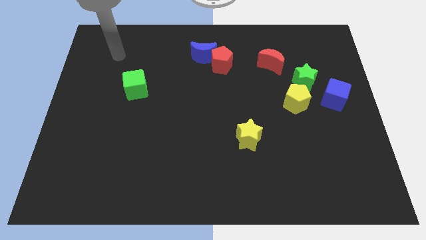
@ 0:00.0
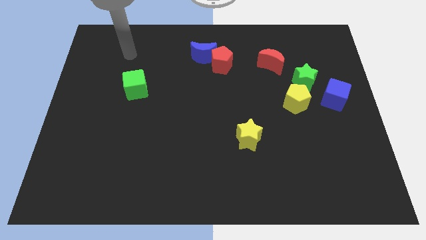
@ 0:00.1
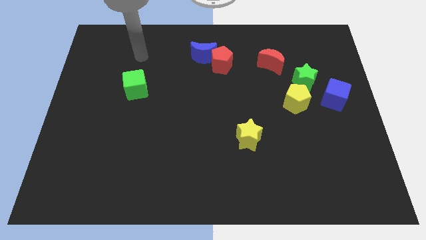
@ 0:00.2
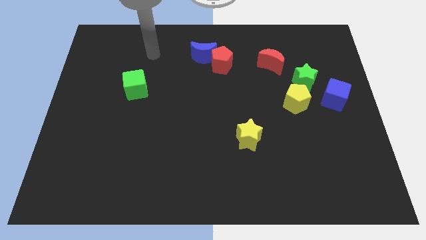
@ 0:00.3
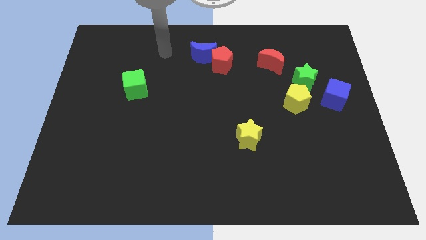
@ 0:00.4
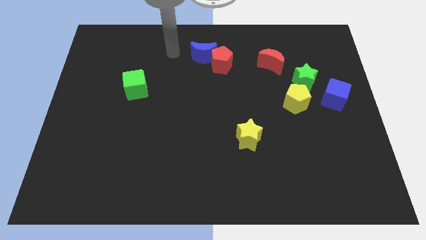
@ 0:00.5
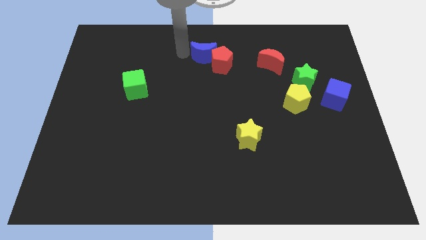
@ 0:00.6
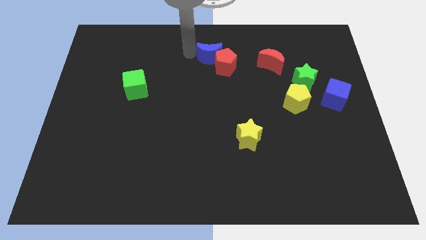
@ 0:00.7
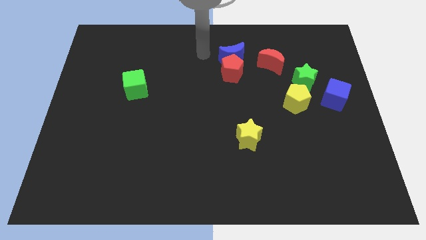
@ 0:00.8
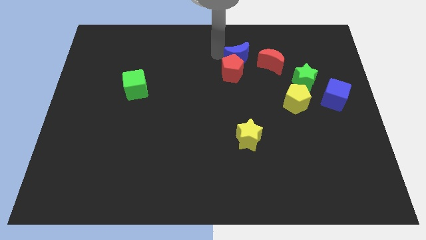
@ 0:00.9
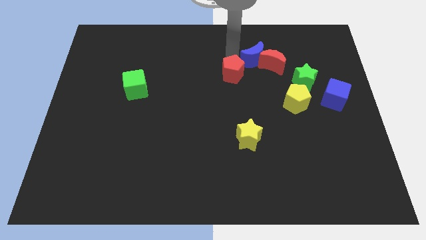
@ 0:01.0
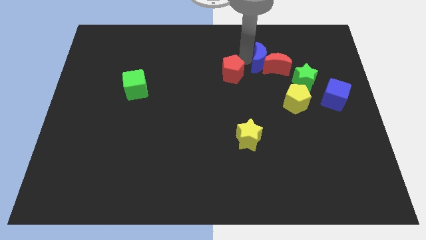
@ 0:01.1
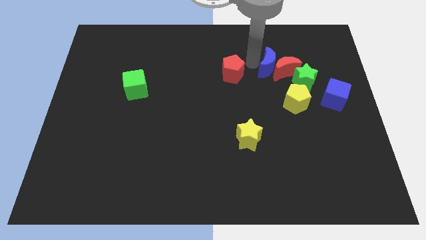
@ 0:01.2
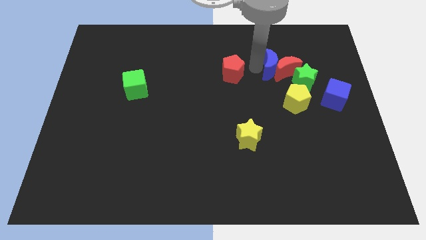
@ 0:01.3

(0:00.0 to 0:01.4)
move the red pentagon away from the blue moon

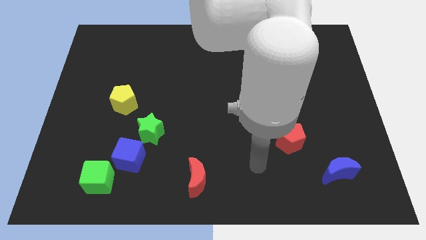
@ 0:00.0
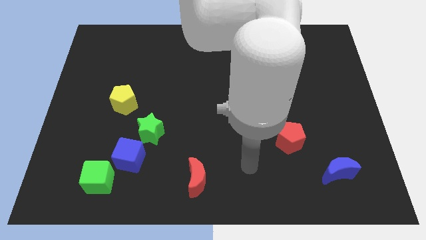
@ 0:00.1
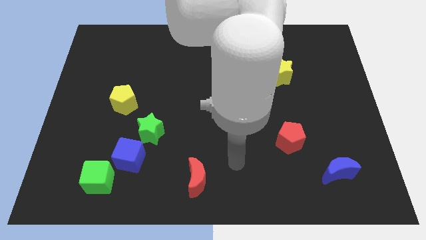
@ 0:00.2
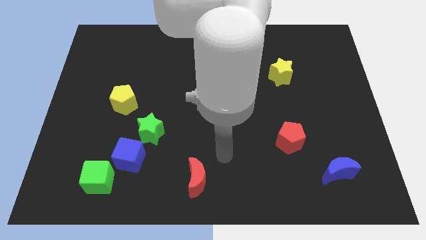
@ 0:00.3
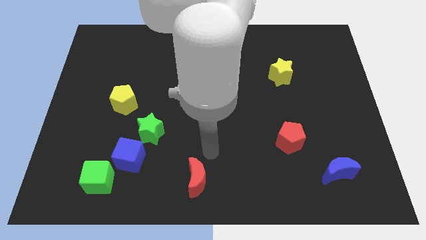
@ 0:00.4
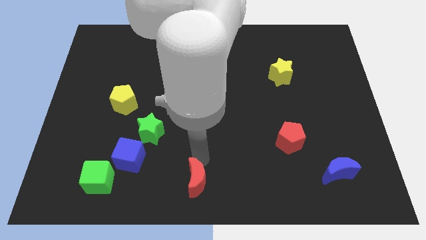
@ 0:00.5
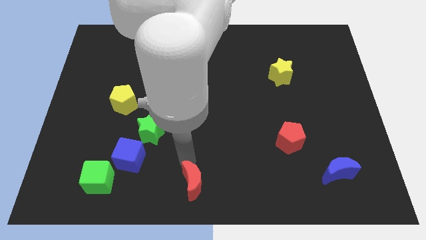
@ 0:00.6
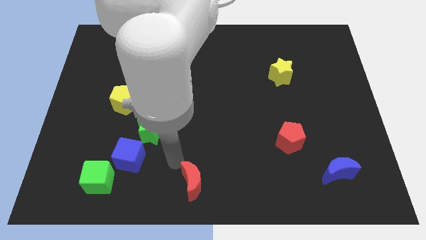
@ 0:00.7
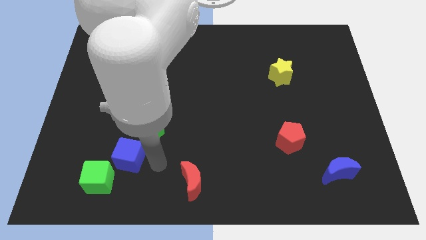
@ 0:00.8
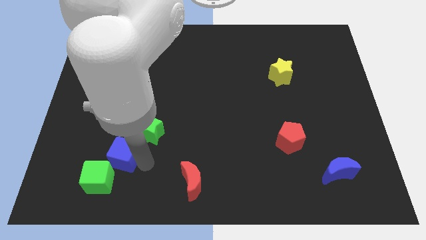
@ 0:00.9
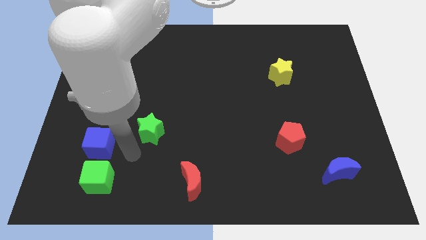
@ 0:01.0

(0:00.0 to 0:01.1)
separate the green star from the blue cube

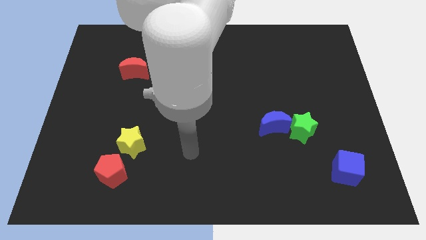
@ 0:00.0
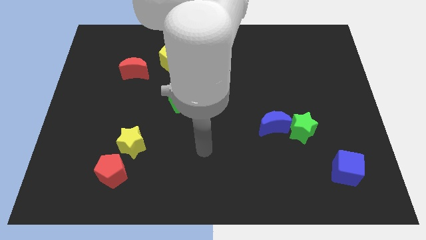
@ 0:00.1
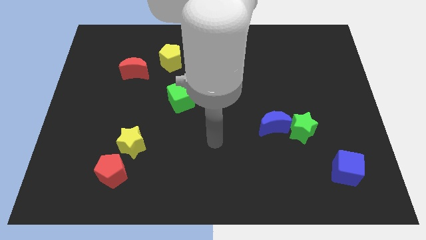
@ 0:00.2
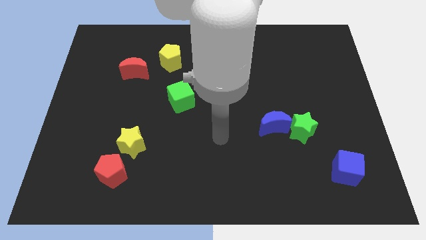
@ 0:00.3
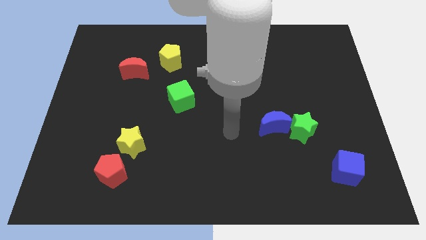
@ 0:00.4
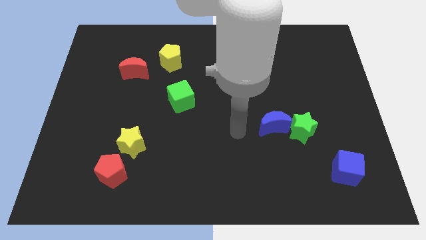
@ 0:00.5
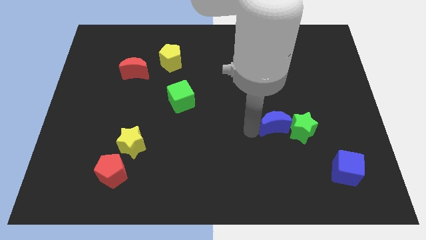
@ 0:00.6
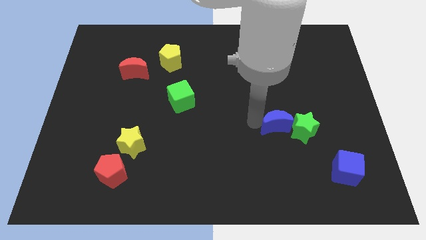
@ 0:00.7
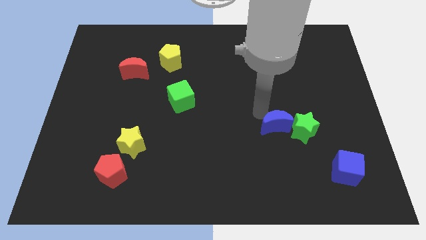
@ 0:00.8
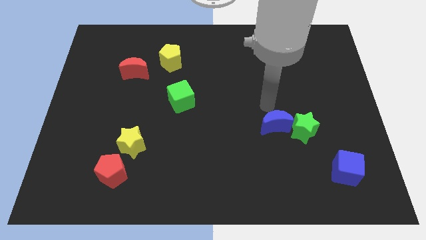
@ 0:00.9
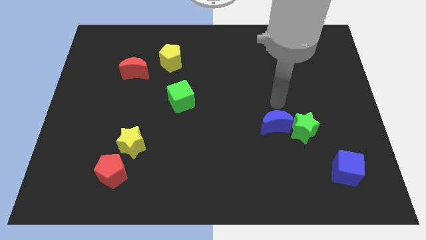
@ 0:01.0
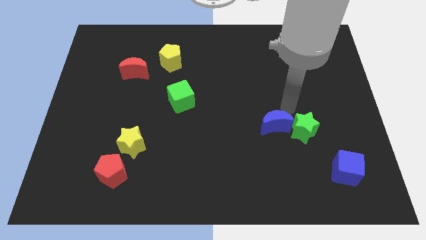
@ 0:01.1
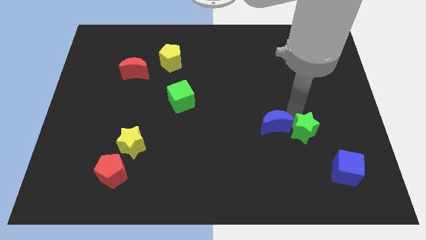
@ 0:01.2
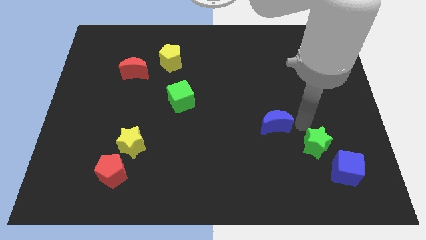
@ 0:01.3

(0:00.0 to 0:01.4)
move the blue moon away from the green star

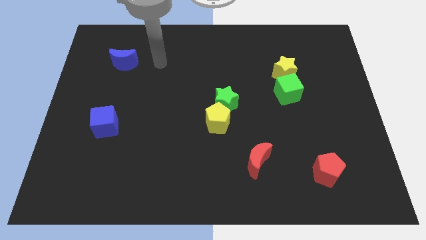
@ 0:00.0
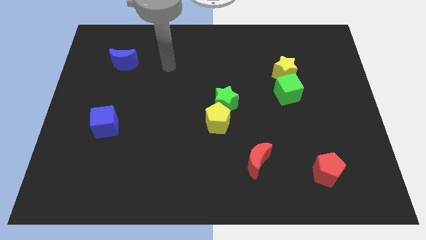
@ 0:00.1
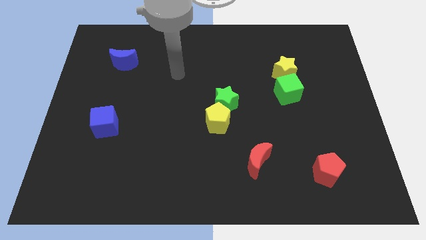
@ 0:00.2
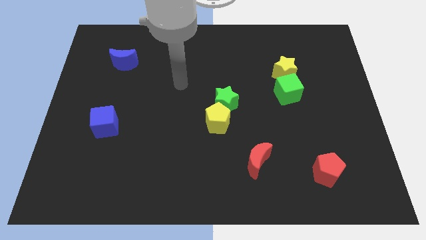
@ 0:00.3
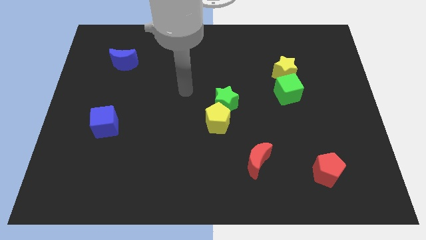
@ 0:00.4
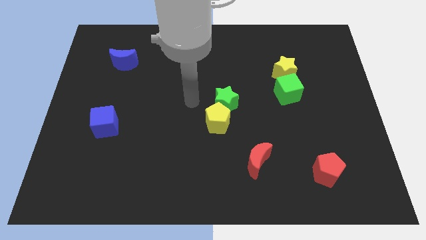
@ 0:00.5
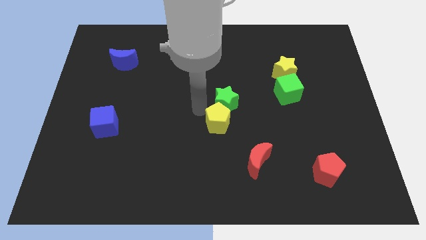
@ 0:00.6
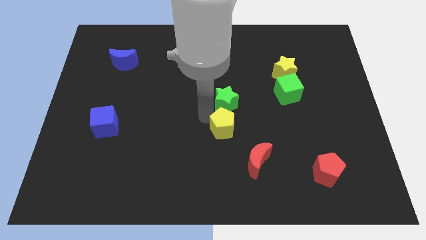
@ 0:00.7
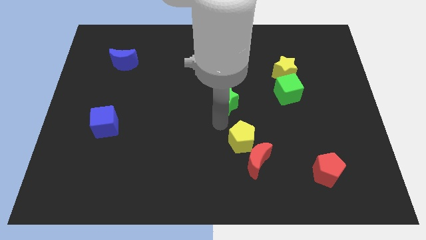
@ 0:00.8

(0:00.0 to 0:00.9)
separate the green star from the yellow pentagon

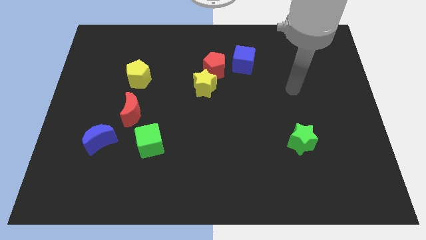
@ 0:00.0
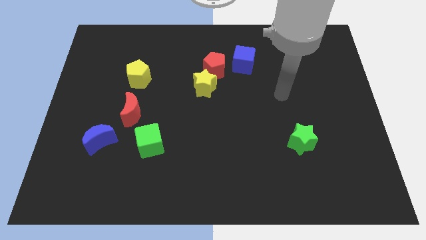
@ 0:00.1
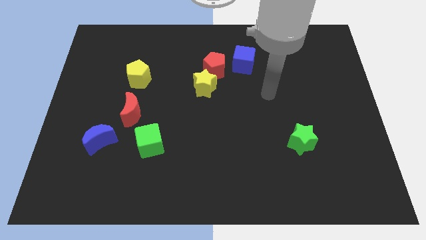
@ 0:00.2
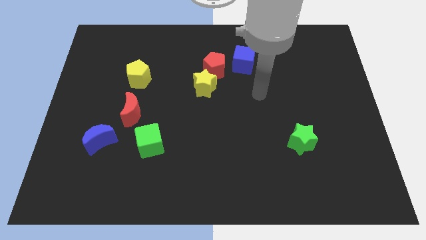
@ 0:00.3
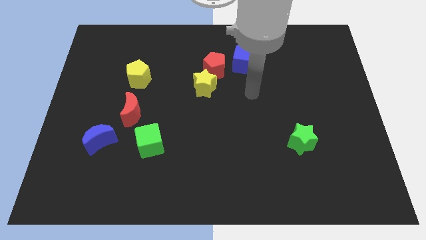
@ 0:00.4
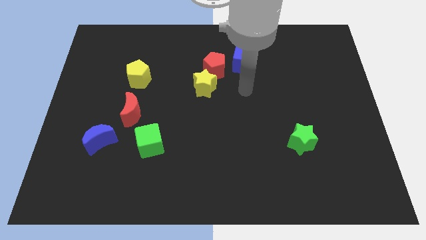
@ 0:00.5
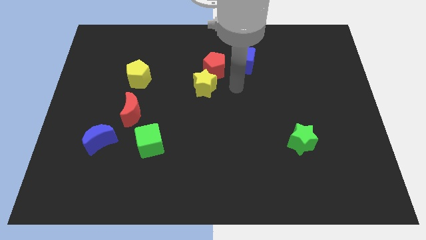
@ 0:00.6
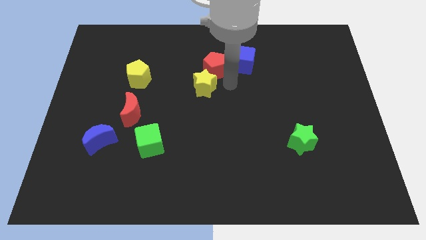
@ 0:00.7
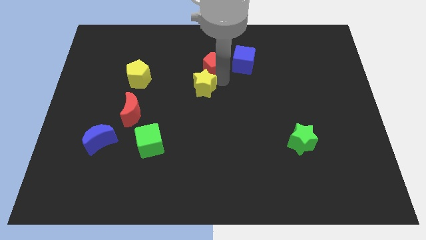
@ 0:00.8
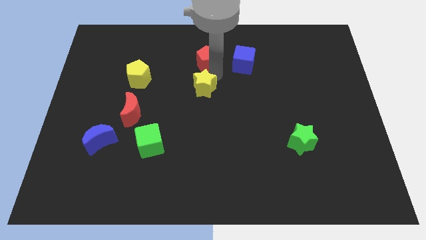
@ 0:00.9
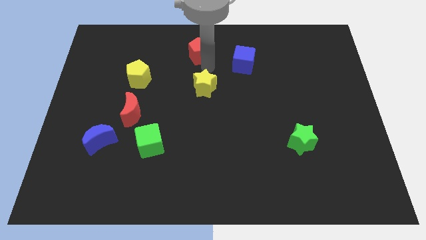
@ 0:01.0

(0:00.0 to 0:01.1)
pull the yellow star apart from the red pentagon

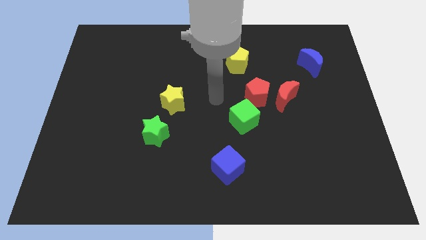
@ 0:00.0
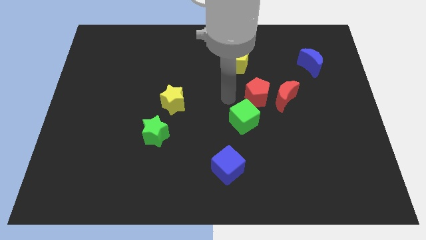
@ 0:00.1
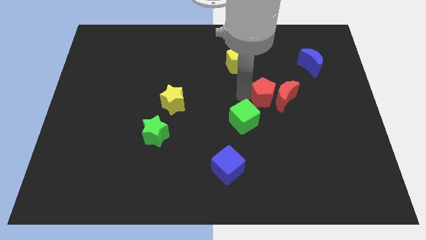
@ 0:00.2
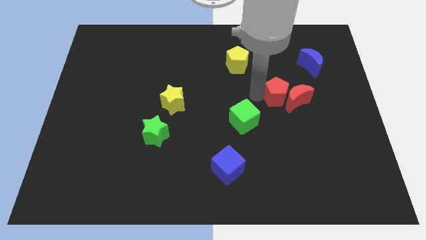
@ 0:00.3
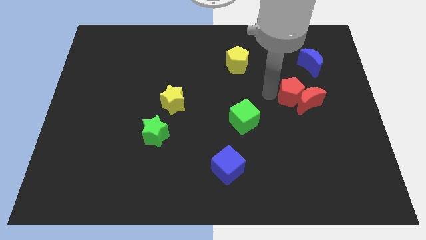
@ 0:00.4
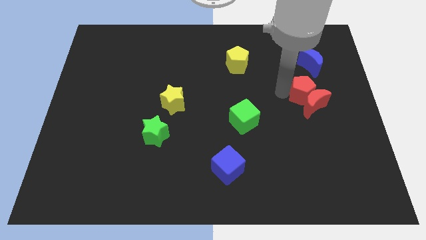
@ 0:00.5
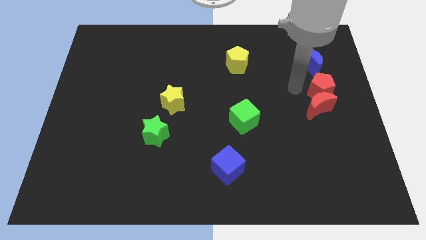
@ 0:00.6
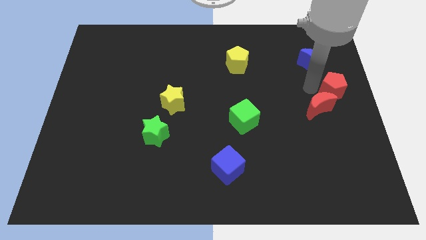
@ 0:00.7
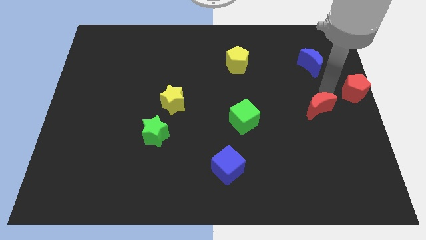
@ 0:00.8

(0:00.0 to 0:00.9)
separate the red moon from the red pentagon

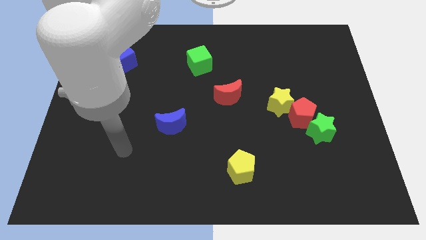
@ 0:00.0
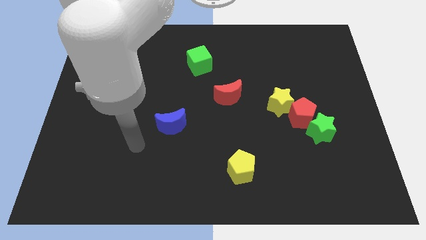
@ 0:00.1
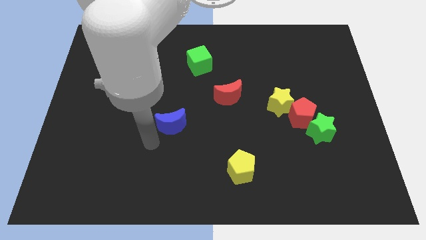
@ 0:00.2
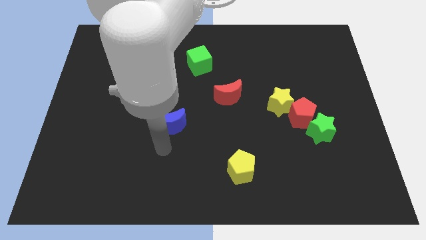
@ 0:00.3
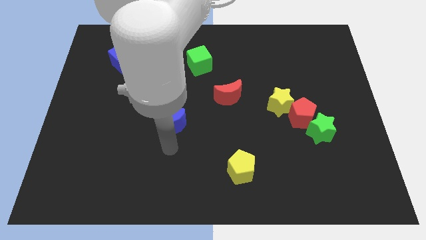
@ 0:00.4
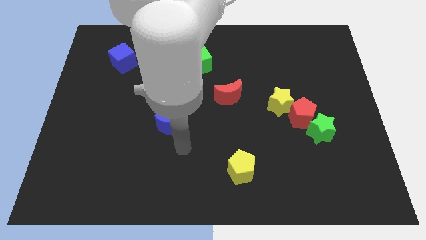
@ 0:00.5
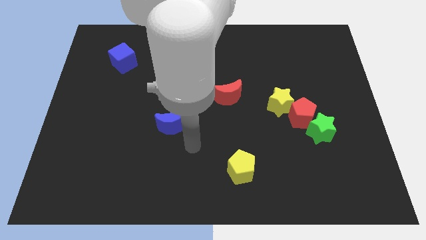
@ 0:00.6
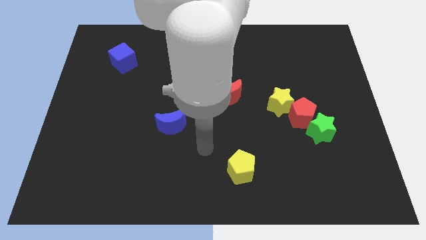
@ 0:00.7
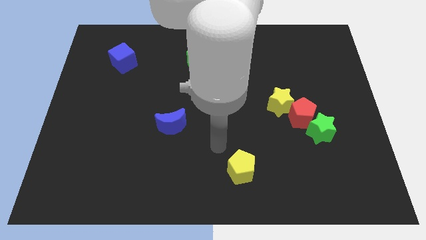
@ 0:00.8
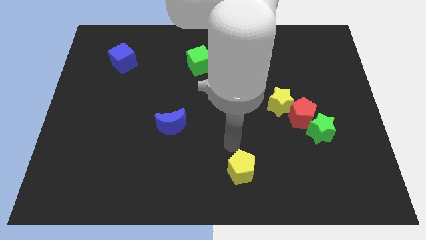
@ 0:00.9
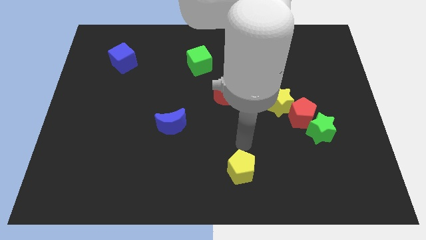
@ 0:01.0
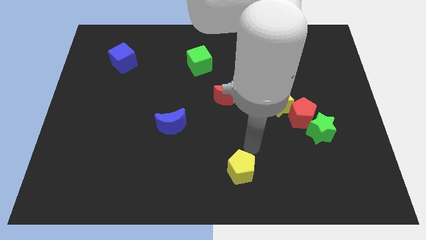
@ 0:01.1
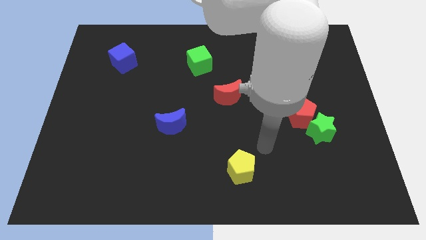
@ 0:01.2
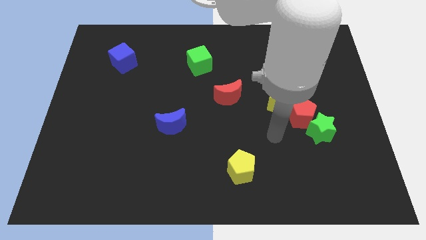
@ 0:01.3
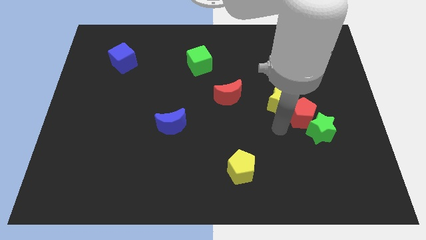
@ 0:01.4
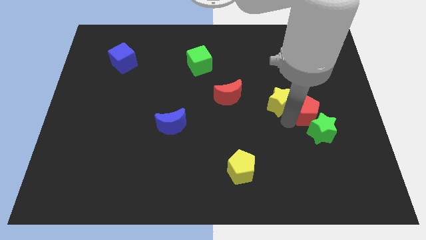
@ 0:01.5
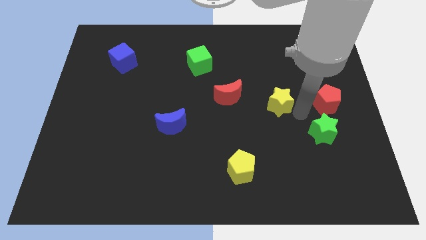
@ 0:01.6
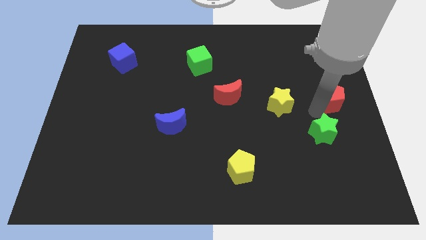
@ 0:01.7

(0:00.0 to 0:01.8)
pull the green star apart from the red pentagon

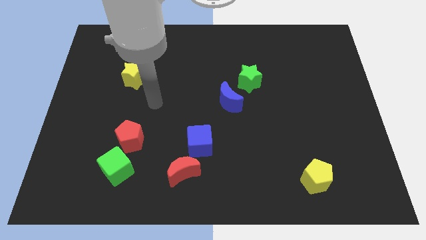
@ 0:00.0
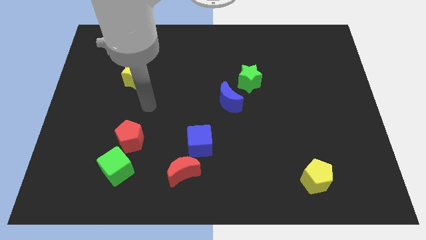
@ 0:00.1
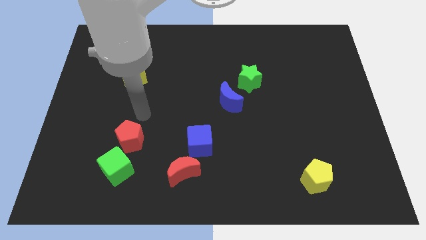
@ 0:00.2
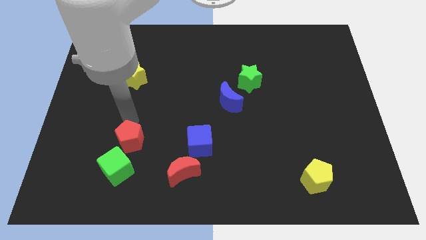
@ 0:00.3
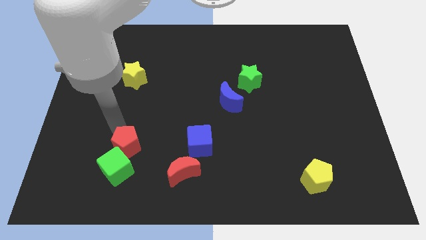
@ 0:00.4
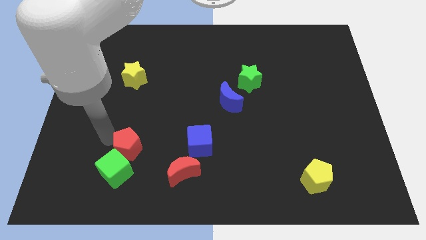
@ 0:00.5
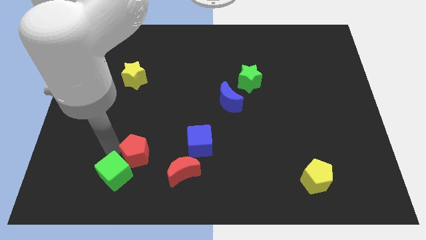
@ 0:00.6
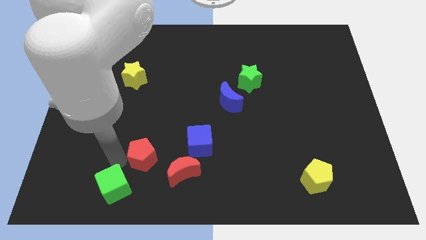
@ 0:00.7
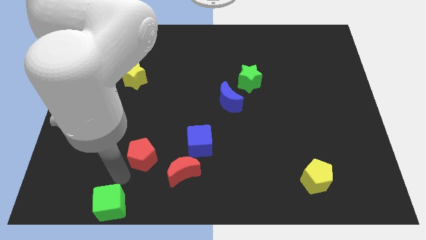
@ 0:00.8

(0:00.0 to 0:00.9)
move the red pentagon away from the green cube
